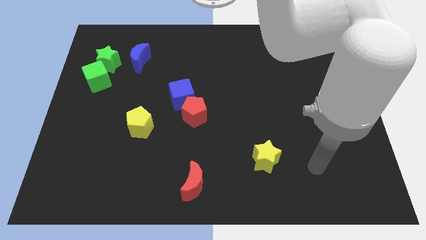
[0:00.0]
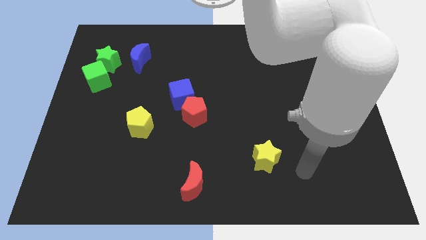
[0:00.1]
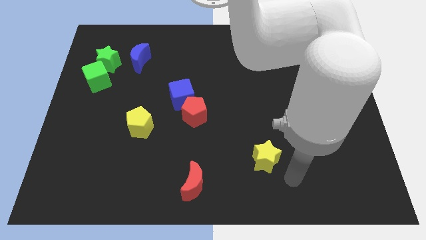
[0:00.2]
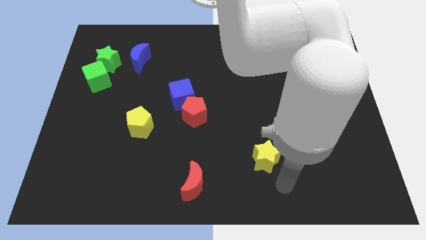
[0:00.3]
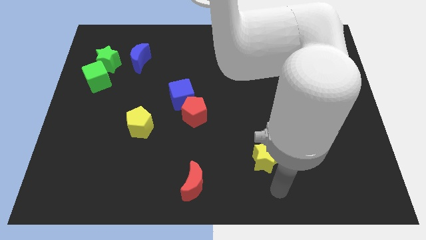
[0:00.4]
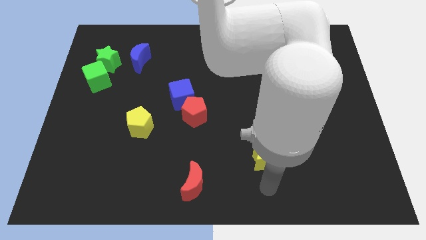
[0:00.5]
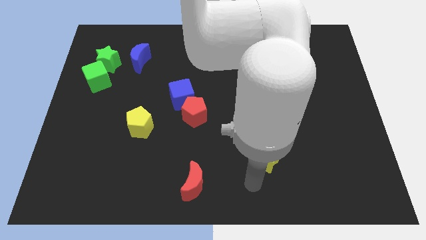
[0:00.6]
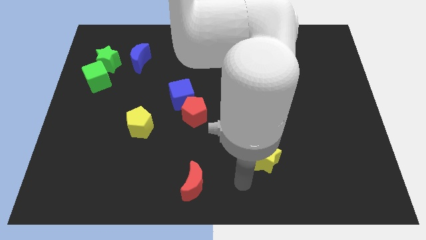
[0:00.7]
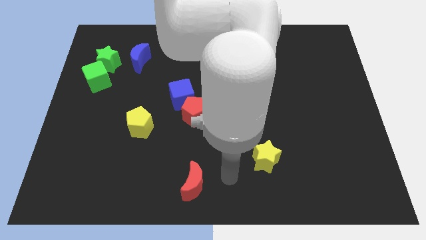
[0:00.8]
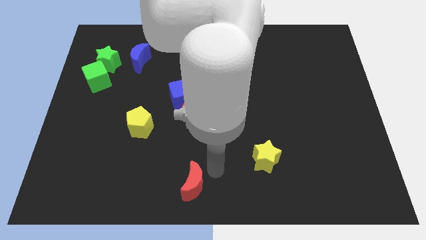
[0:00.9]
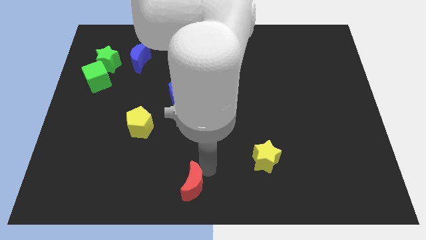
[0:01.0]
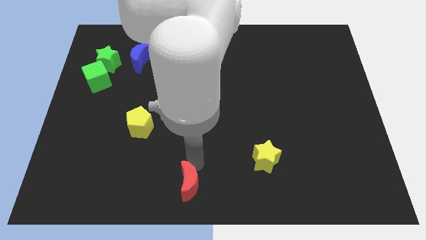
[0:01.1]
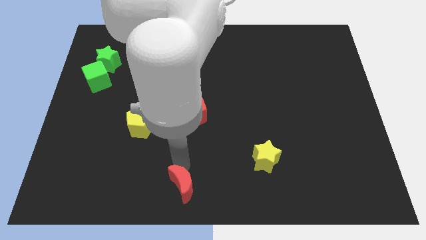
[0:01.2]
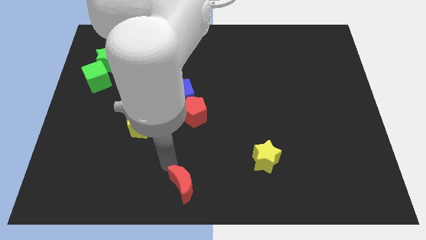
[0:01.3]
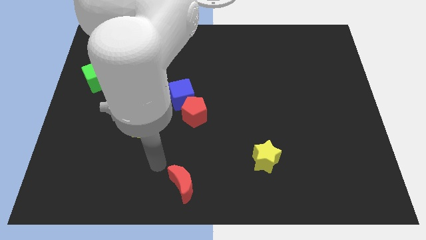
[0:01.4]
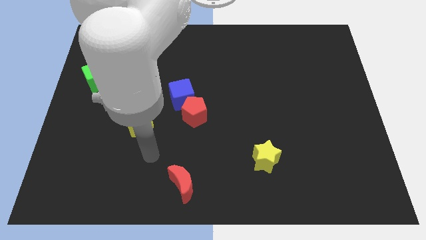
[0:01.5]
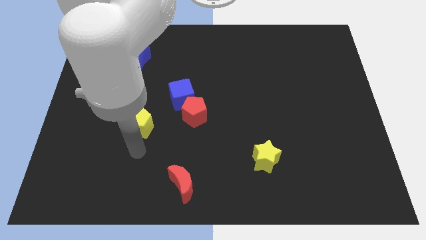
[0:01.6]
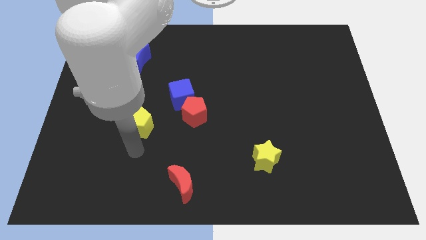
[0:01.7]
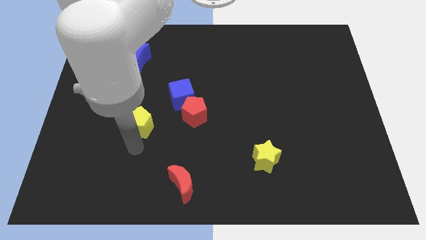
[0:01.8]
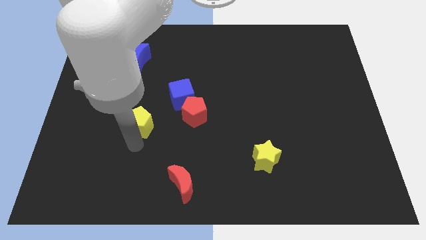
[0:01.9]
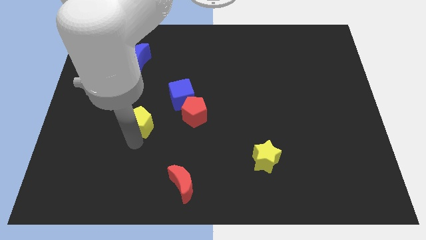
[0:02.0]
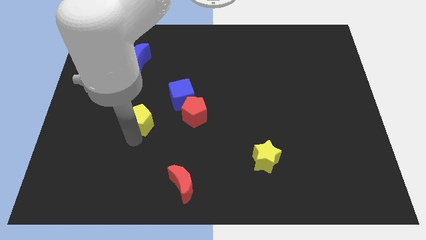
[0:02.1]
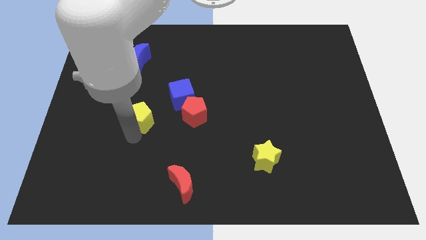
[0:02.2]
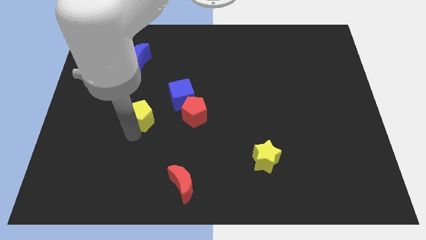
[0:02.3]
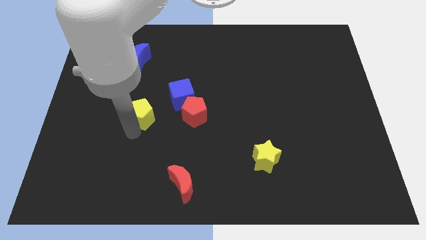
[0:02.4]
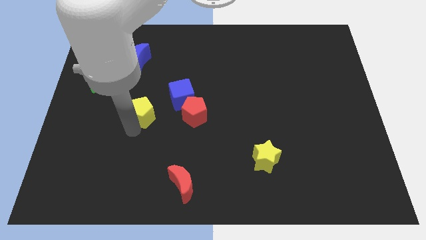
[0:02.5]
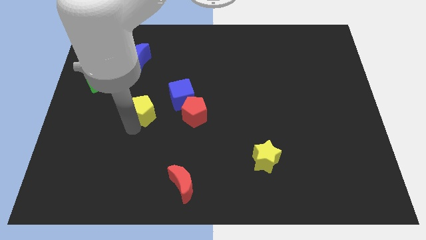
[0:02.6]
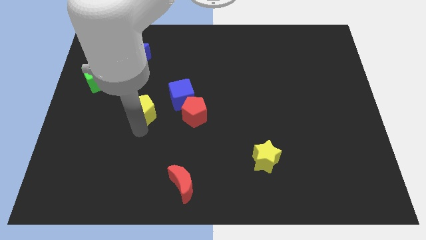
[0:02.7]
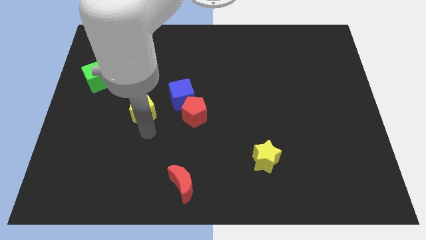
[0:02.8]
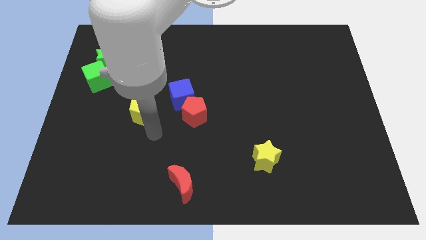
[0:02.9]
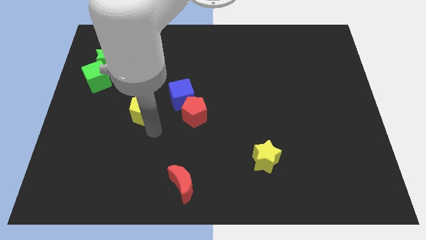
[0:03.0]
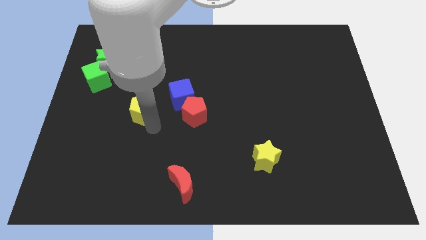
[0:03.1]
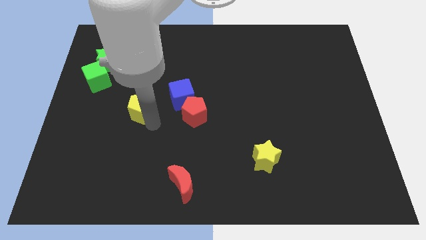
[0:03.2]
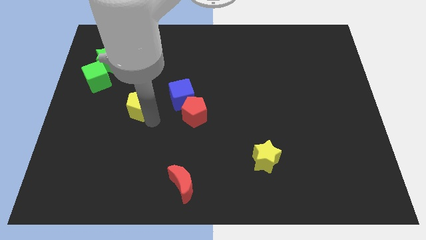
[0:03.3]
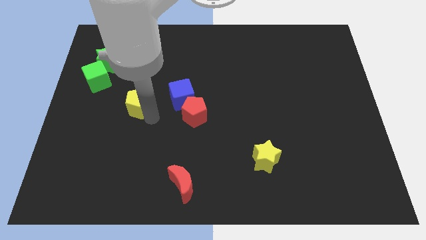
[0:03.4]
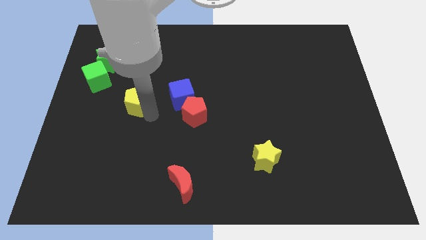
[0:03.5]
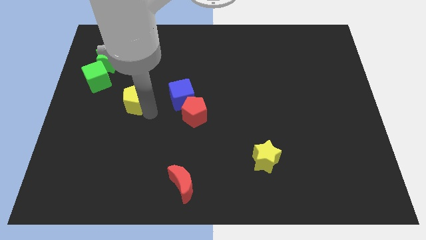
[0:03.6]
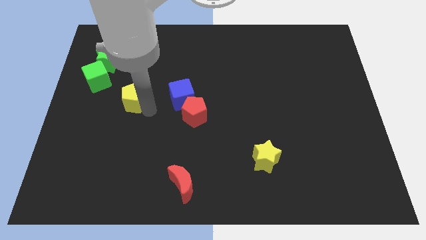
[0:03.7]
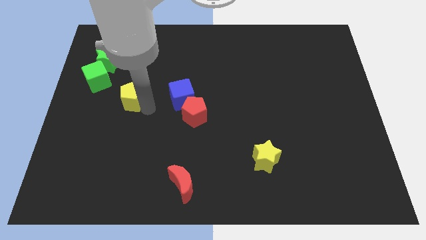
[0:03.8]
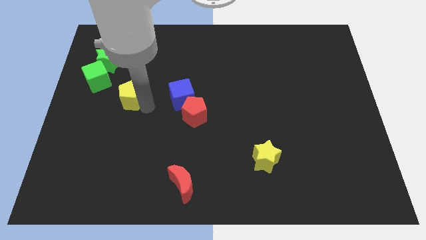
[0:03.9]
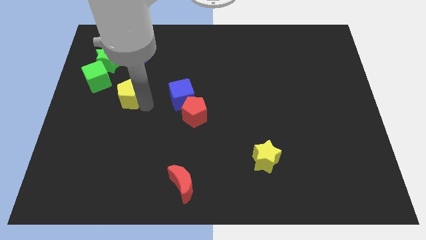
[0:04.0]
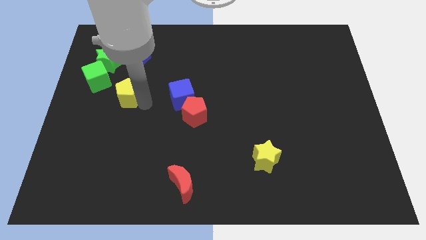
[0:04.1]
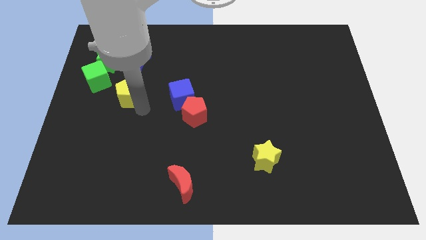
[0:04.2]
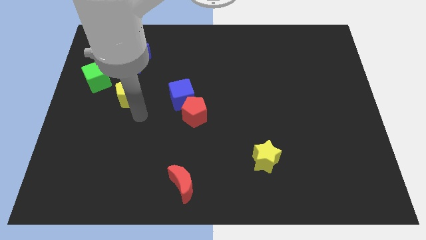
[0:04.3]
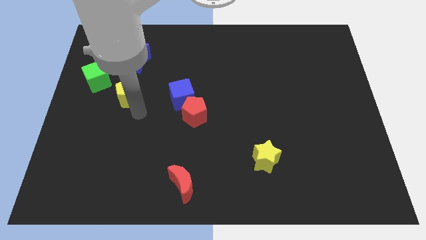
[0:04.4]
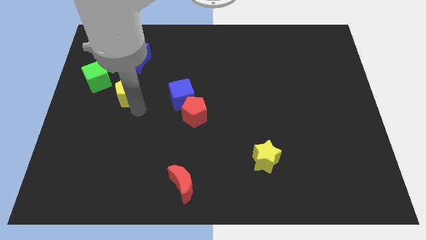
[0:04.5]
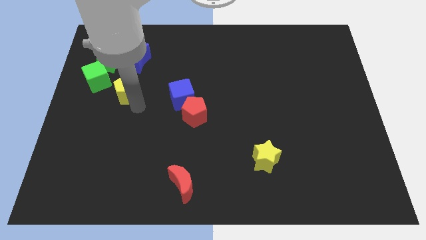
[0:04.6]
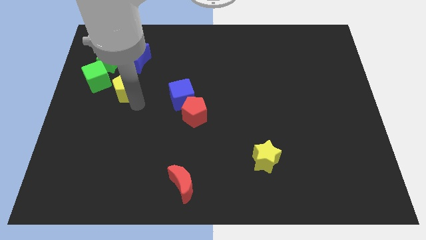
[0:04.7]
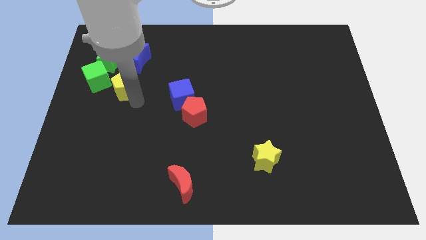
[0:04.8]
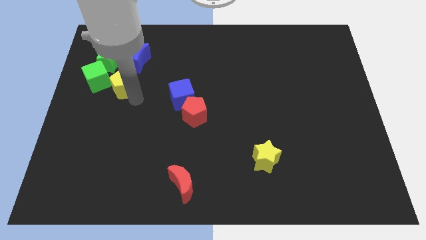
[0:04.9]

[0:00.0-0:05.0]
slide the yellow pentagon to the bottom left side of the blue moon

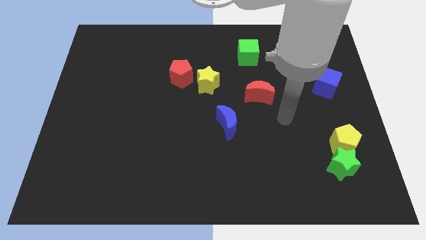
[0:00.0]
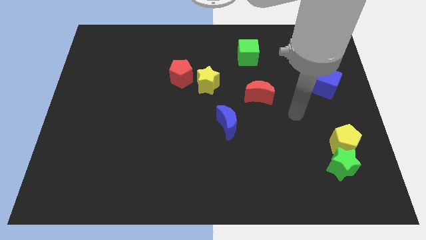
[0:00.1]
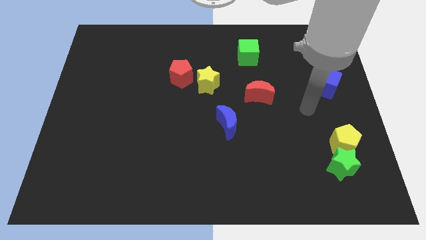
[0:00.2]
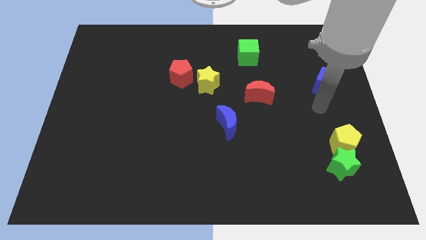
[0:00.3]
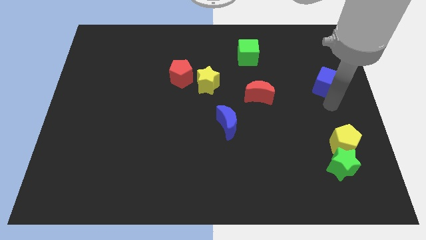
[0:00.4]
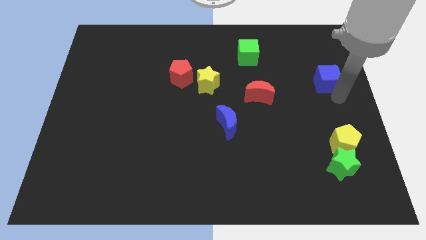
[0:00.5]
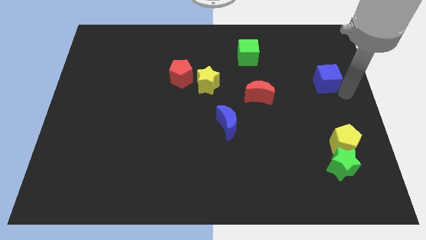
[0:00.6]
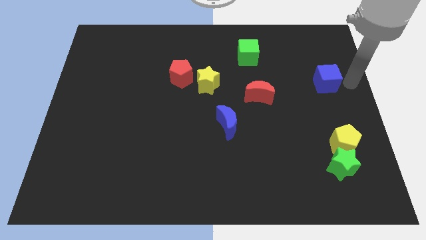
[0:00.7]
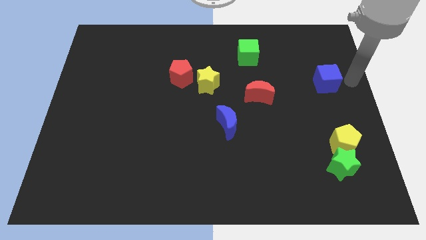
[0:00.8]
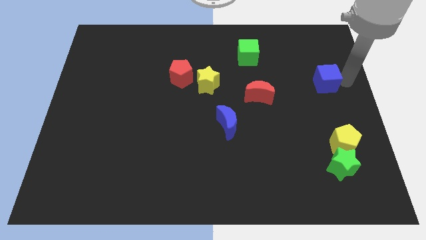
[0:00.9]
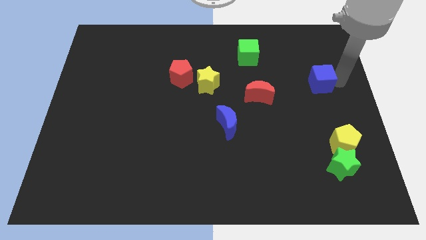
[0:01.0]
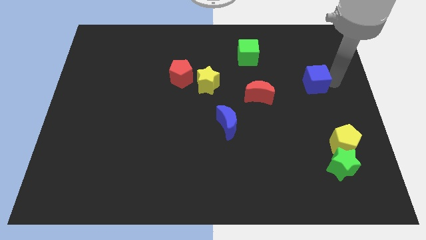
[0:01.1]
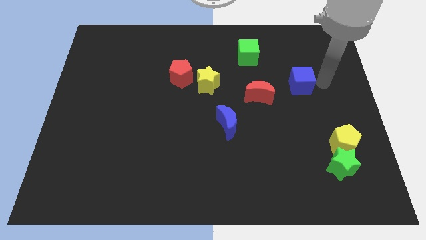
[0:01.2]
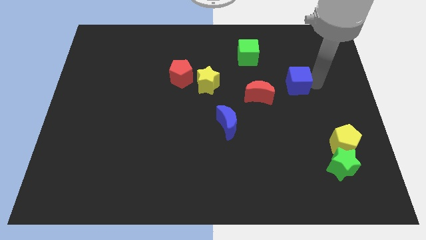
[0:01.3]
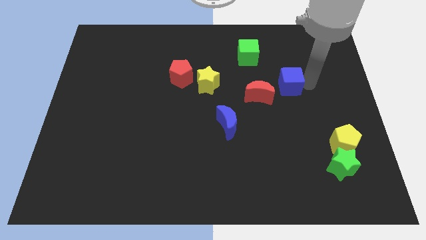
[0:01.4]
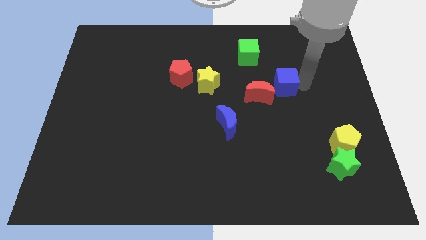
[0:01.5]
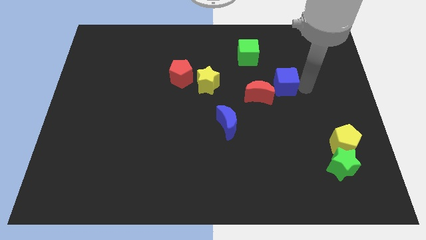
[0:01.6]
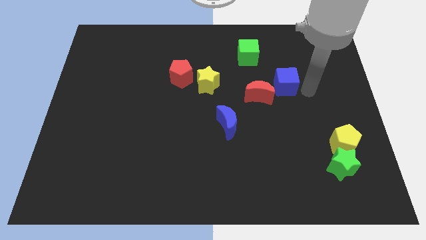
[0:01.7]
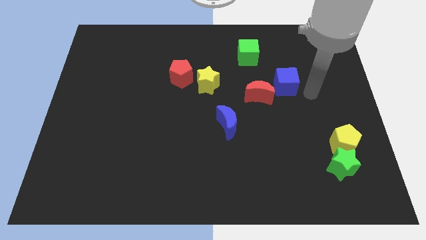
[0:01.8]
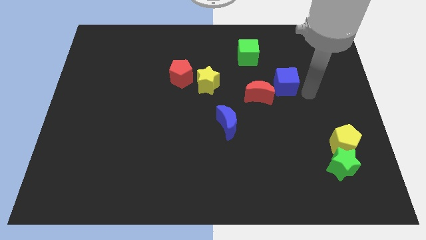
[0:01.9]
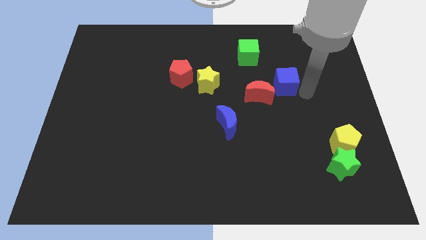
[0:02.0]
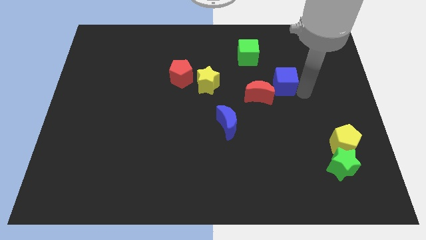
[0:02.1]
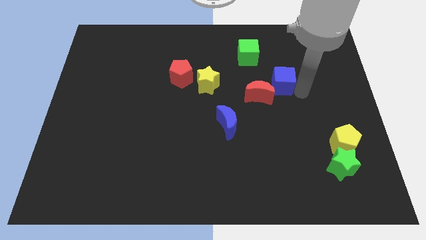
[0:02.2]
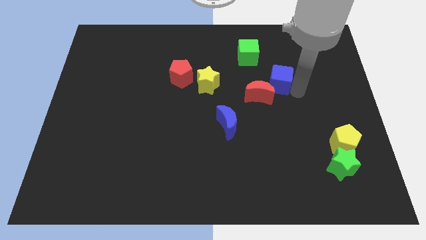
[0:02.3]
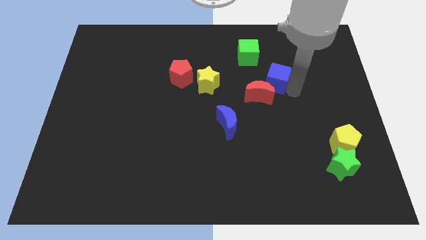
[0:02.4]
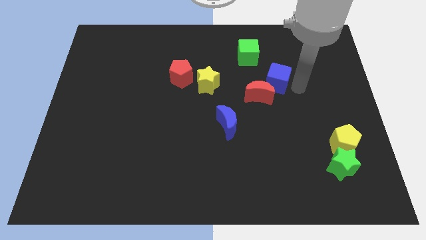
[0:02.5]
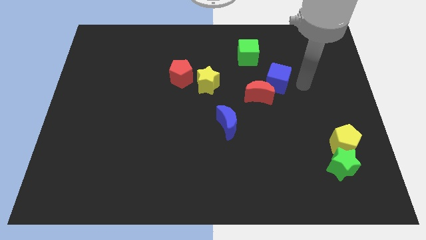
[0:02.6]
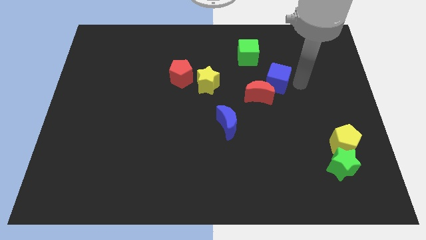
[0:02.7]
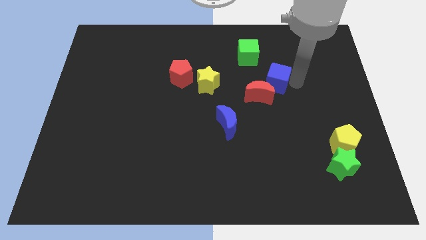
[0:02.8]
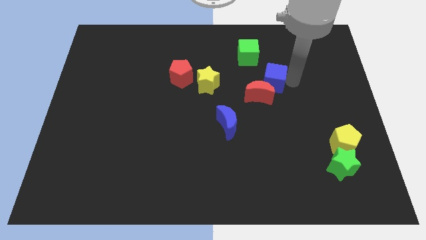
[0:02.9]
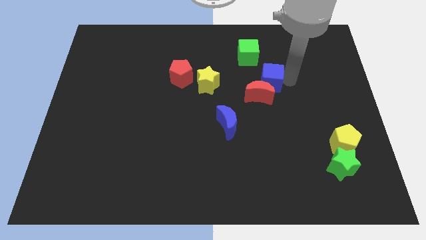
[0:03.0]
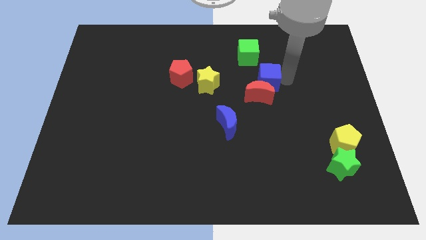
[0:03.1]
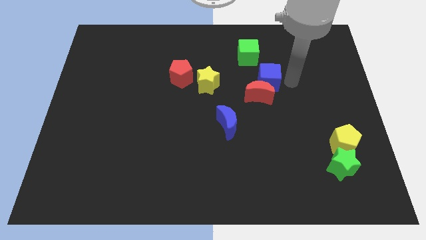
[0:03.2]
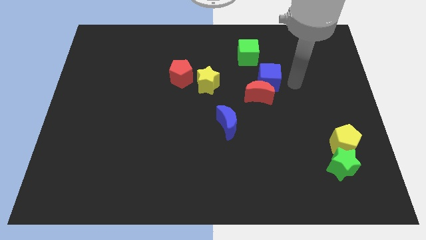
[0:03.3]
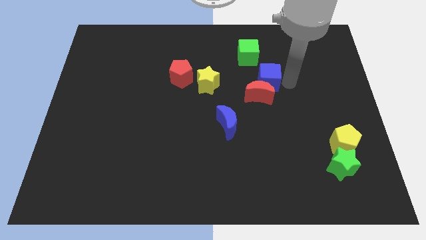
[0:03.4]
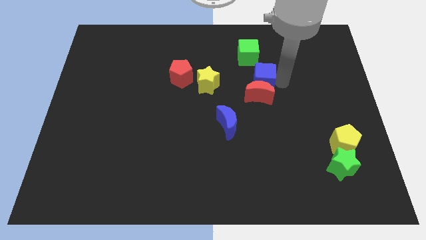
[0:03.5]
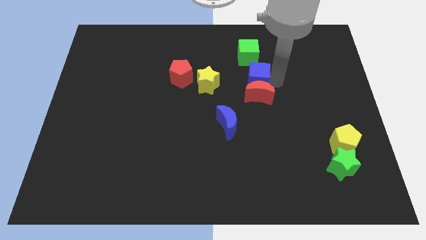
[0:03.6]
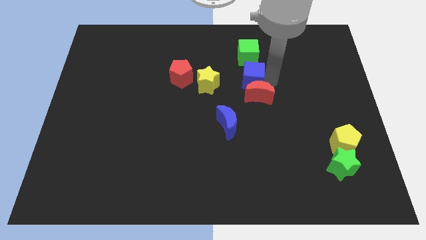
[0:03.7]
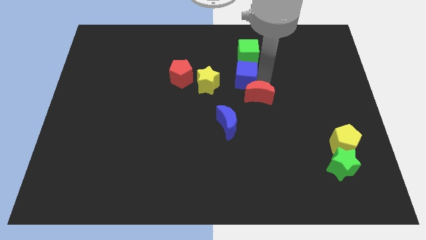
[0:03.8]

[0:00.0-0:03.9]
put the blue cube right of the red pentagon
